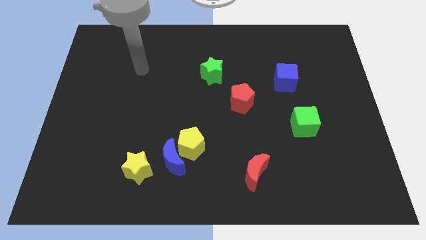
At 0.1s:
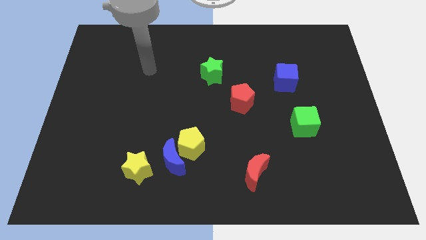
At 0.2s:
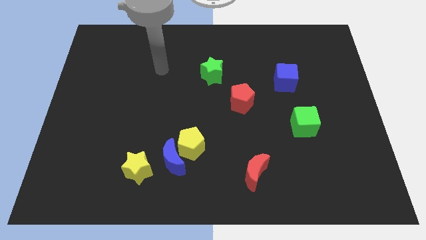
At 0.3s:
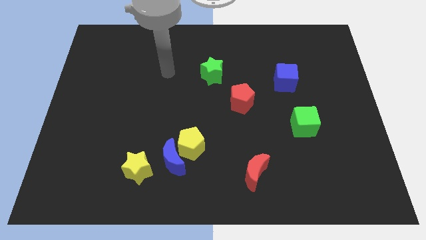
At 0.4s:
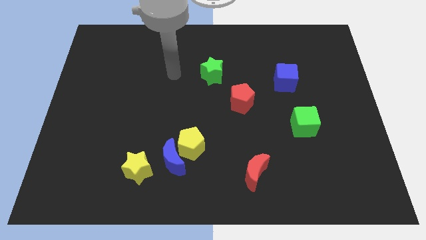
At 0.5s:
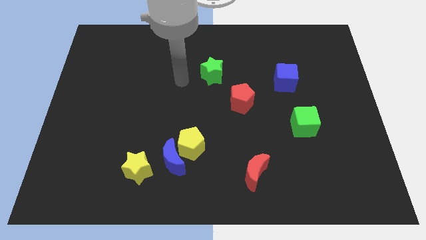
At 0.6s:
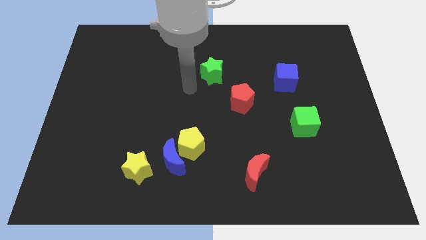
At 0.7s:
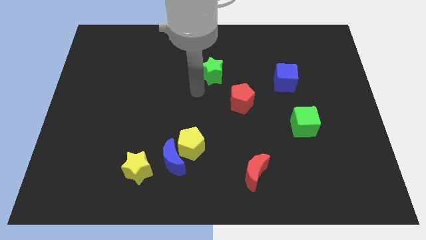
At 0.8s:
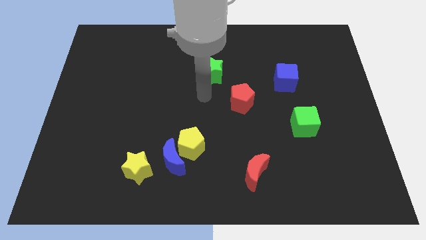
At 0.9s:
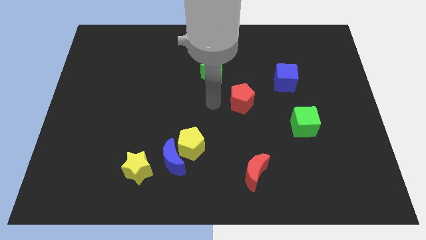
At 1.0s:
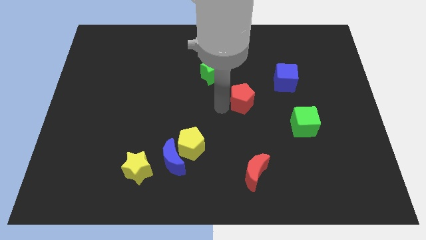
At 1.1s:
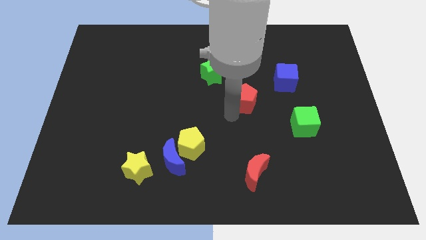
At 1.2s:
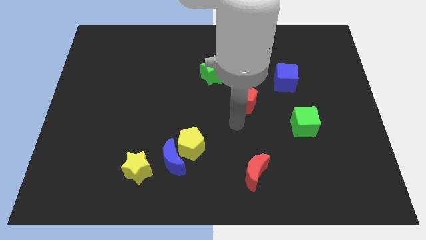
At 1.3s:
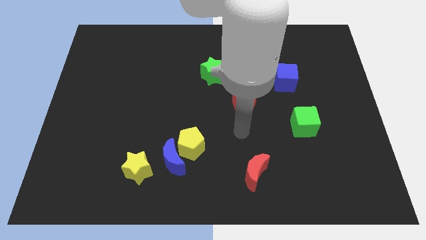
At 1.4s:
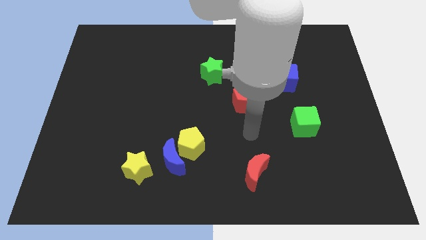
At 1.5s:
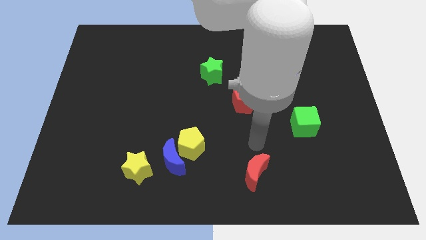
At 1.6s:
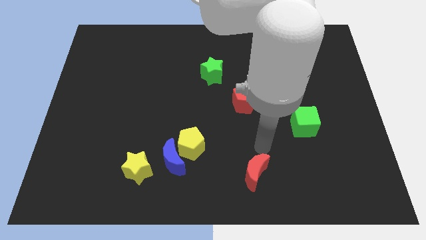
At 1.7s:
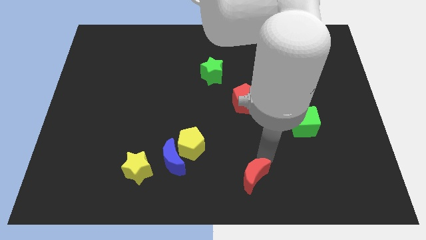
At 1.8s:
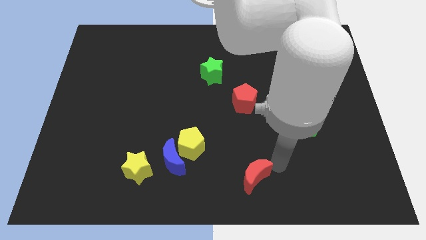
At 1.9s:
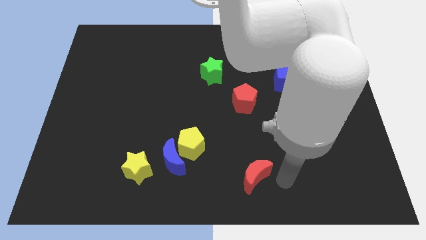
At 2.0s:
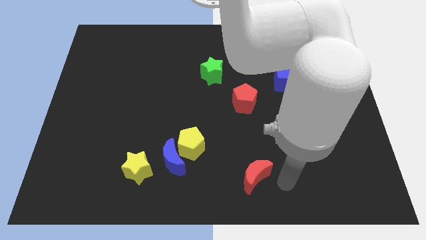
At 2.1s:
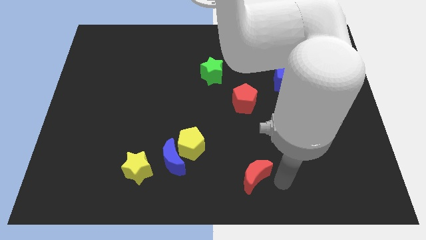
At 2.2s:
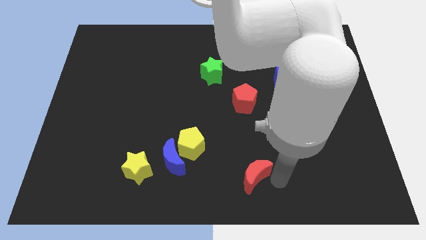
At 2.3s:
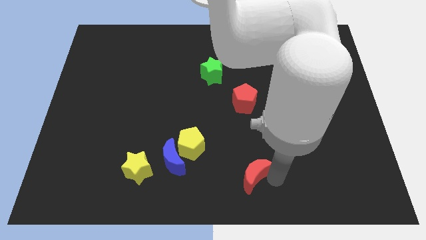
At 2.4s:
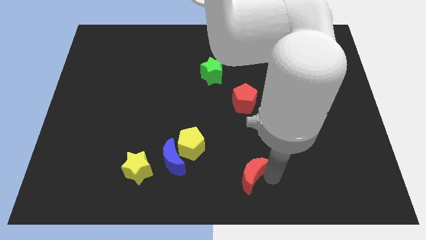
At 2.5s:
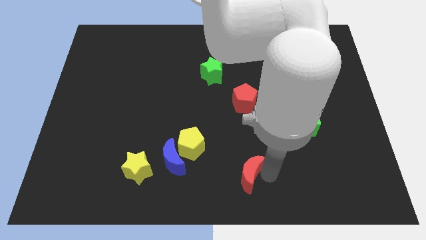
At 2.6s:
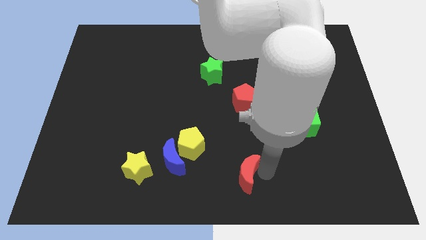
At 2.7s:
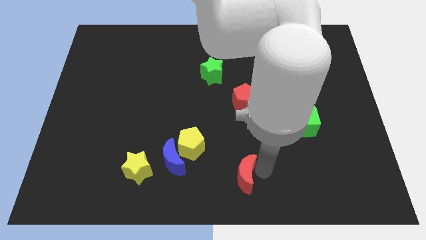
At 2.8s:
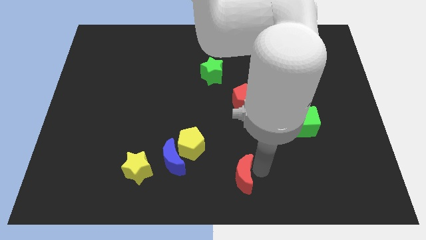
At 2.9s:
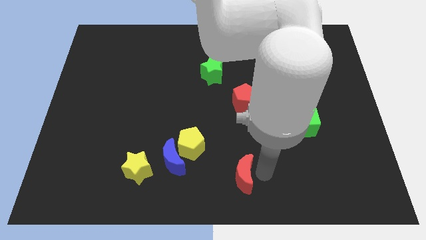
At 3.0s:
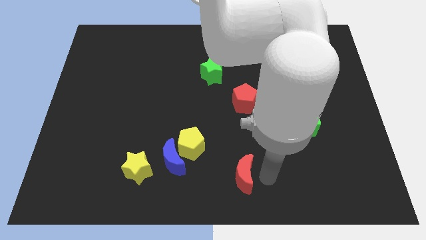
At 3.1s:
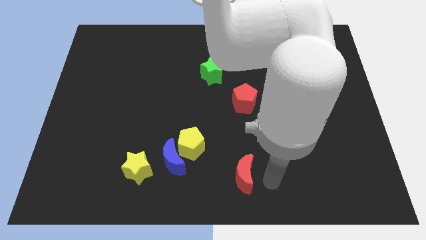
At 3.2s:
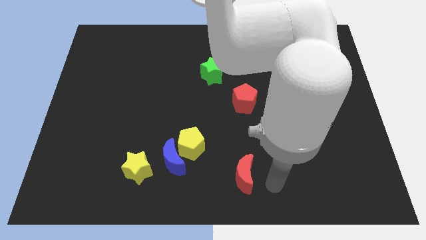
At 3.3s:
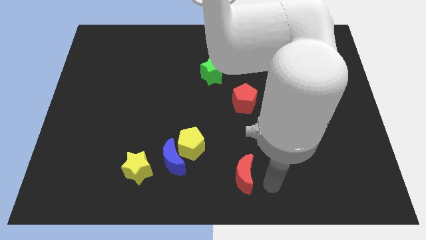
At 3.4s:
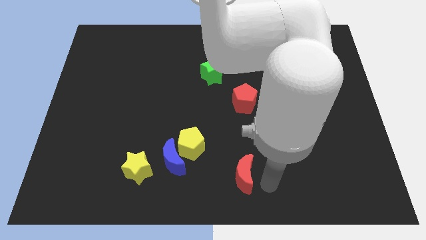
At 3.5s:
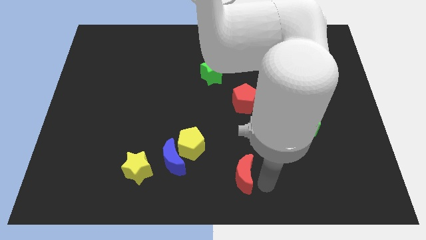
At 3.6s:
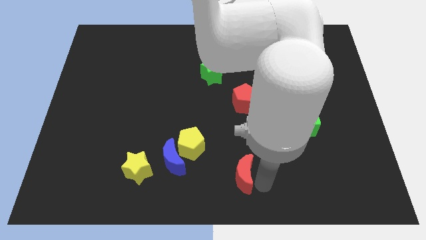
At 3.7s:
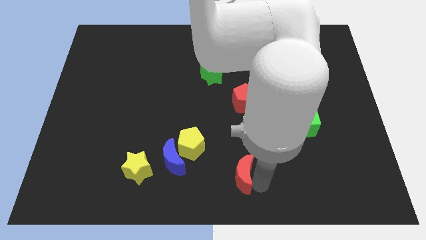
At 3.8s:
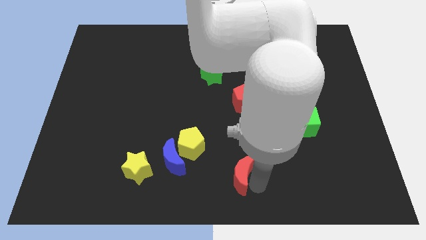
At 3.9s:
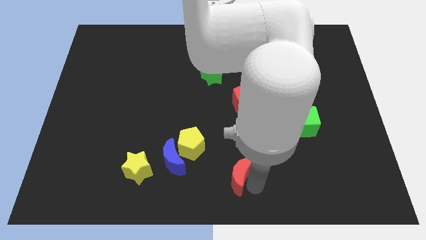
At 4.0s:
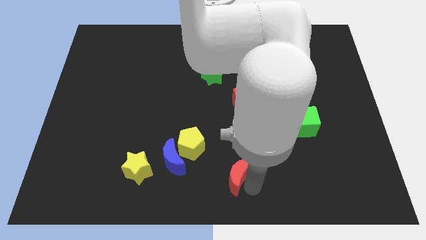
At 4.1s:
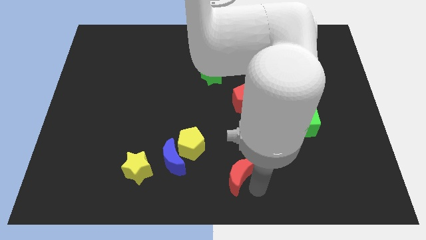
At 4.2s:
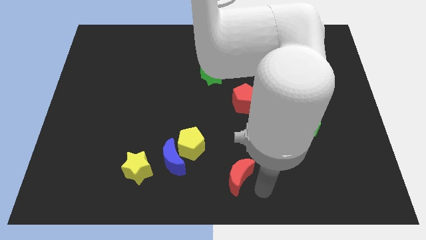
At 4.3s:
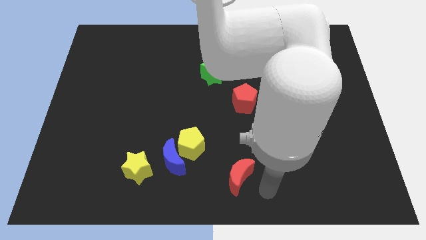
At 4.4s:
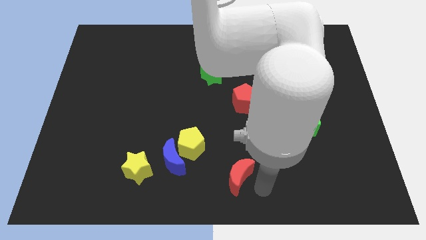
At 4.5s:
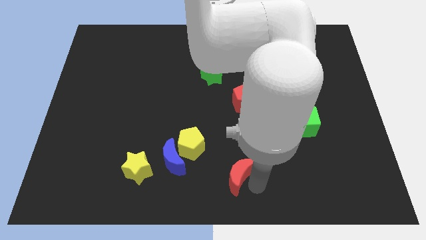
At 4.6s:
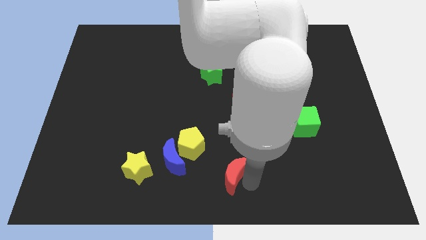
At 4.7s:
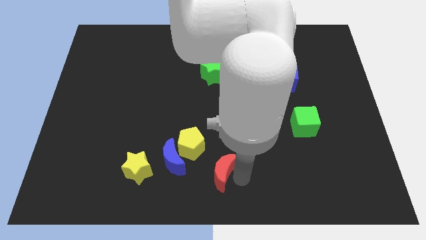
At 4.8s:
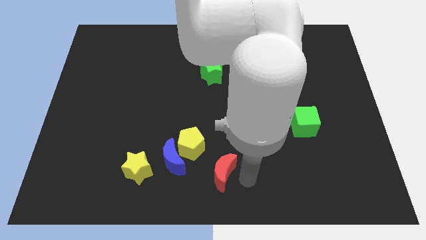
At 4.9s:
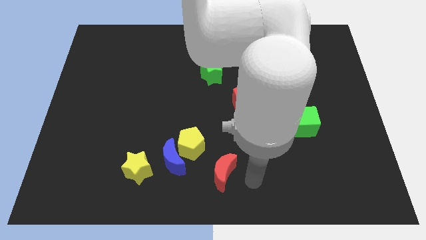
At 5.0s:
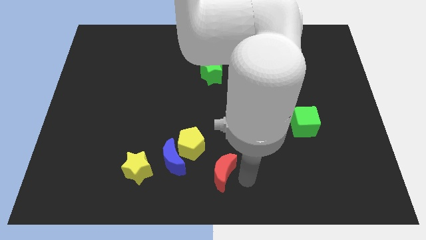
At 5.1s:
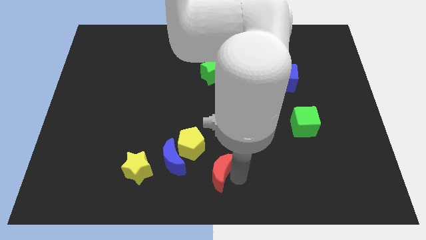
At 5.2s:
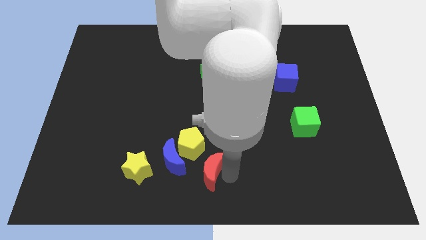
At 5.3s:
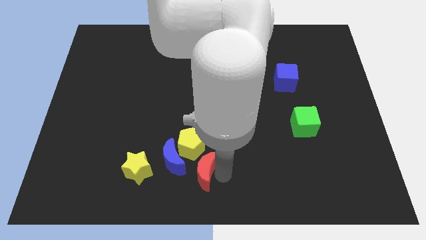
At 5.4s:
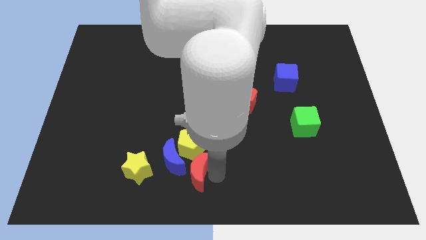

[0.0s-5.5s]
push the red moon close to the blue moon

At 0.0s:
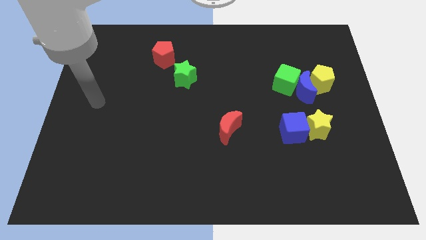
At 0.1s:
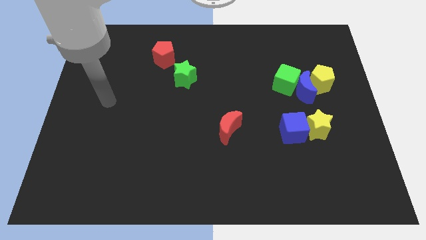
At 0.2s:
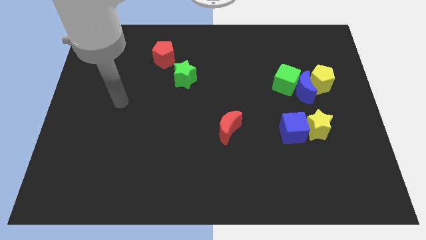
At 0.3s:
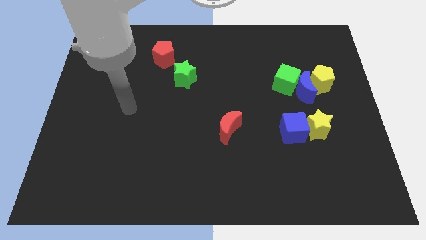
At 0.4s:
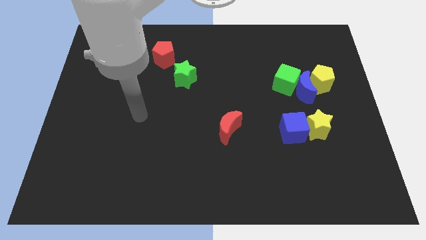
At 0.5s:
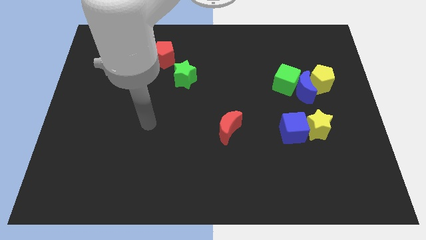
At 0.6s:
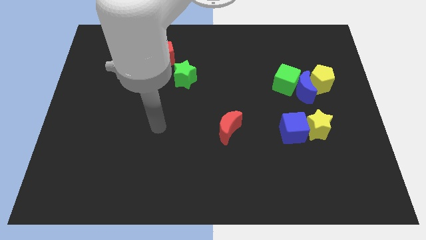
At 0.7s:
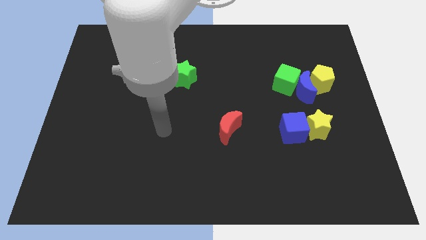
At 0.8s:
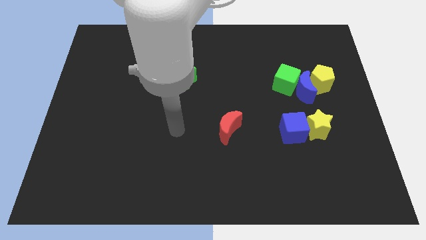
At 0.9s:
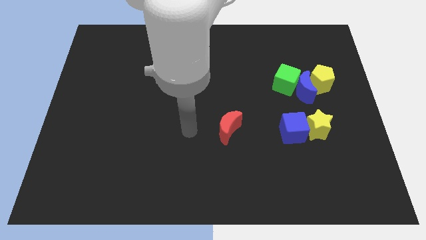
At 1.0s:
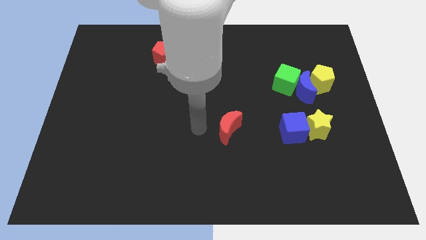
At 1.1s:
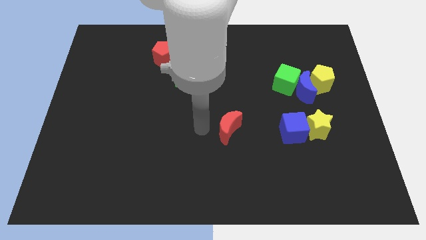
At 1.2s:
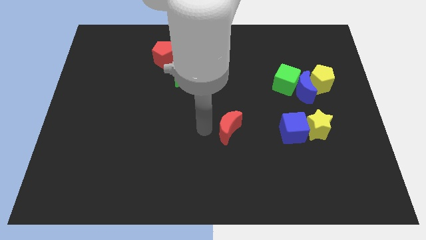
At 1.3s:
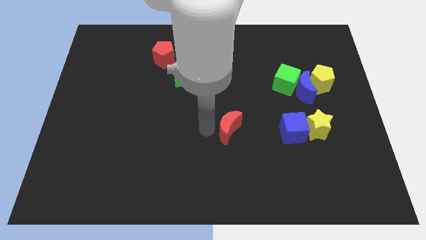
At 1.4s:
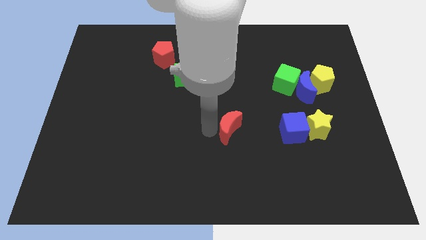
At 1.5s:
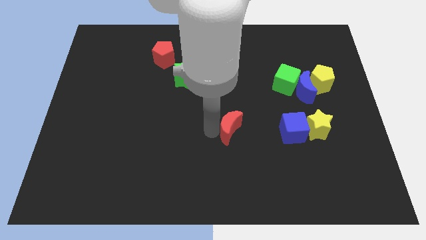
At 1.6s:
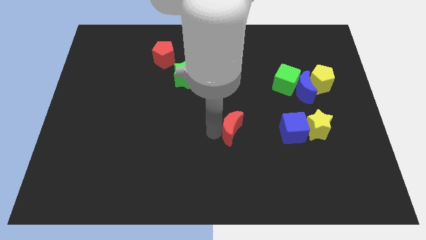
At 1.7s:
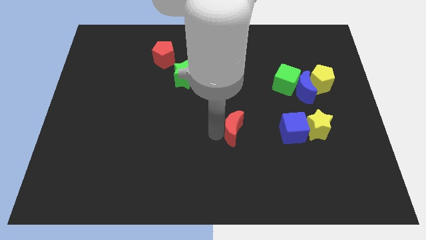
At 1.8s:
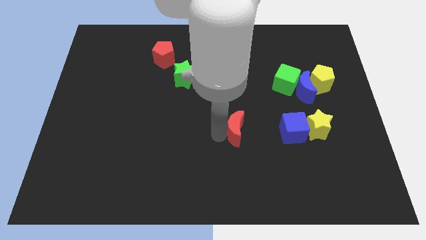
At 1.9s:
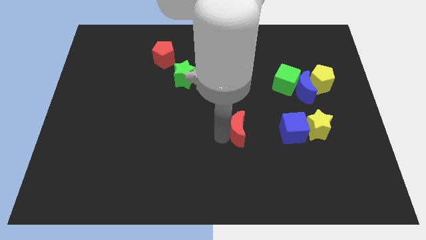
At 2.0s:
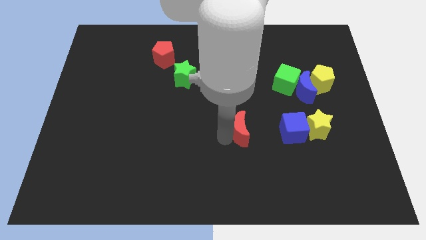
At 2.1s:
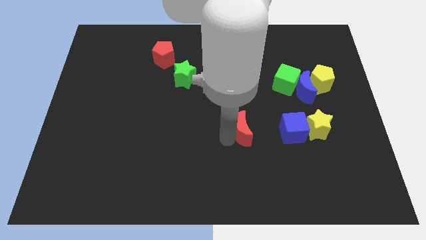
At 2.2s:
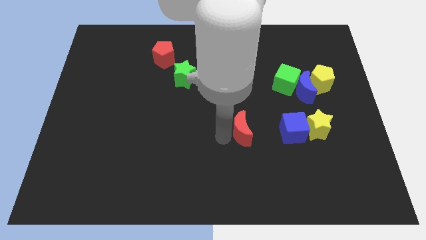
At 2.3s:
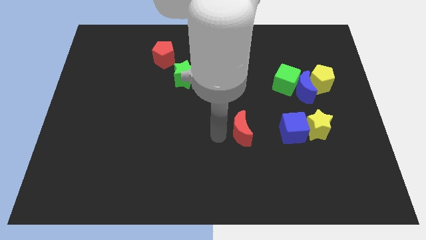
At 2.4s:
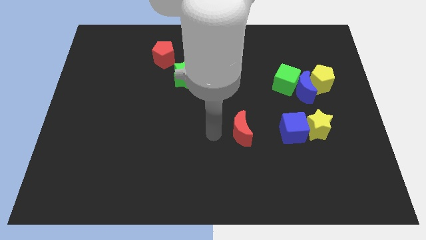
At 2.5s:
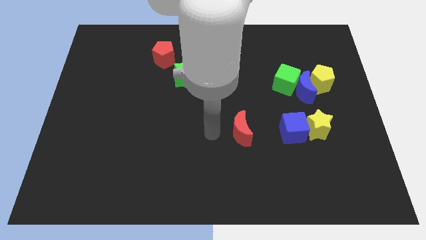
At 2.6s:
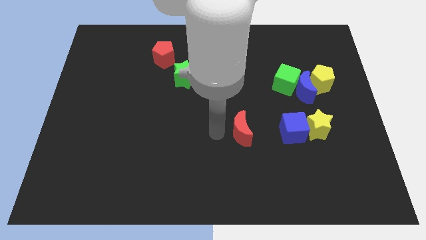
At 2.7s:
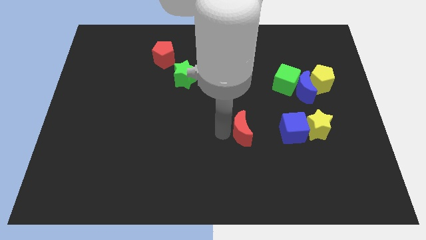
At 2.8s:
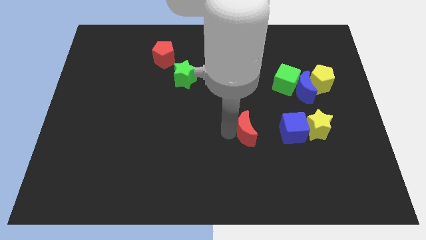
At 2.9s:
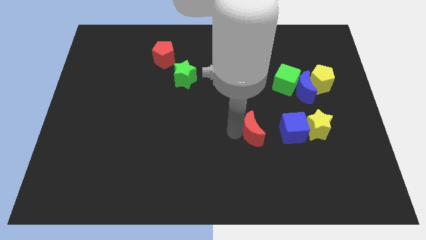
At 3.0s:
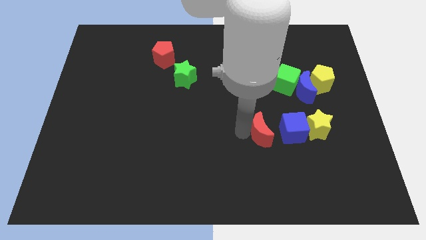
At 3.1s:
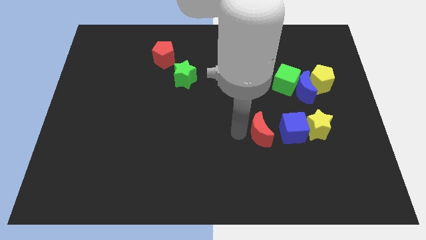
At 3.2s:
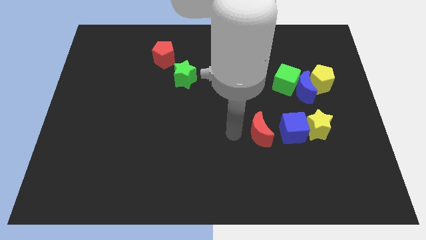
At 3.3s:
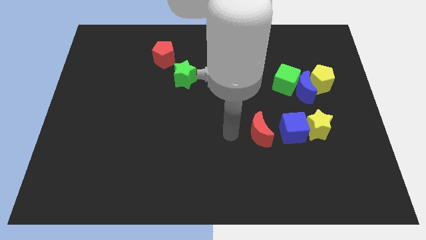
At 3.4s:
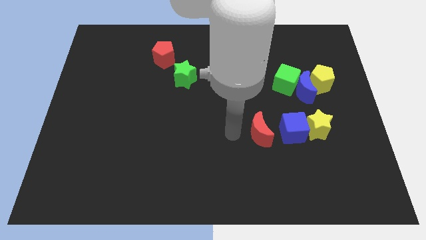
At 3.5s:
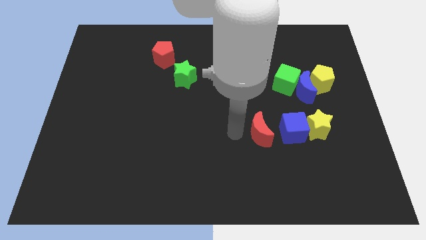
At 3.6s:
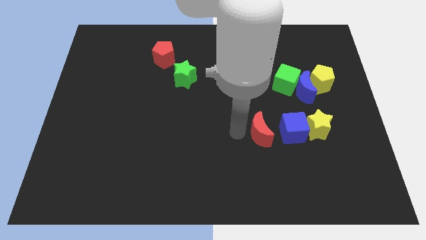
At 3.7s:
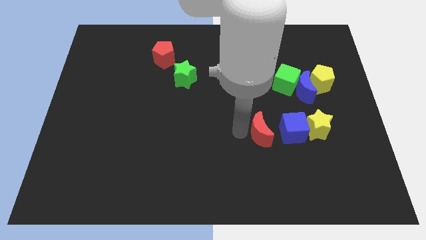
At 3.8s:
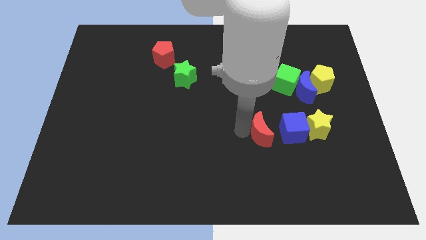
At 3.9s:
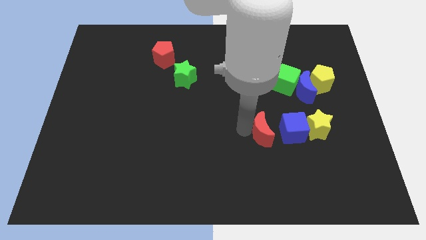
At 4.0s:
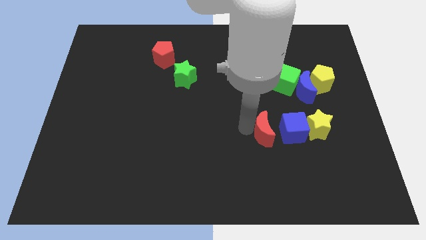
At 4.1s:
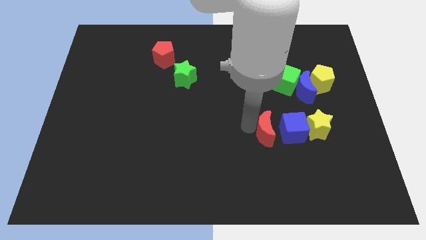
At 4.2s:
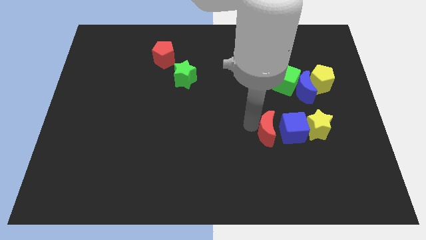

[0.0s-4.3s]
slide the red moon close to the blue cube
